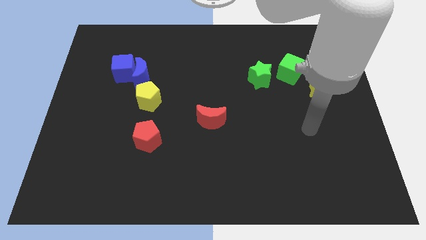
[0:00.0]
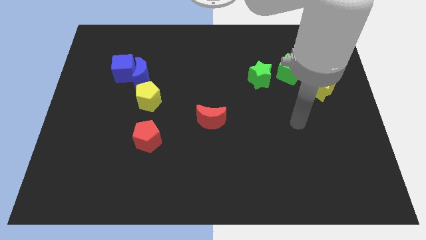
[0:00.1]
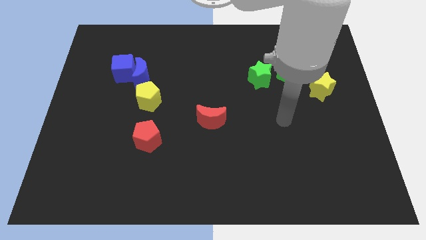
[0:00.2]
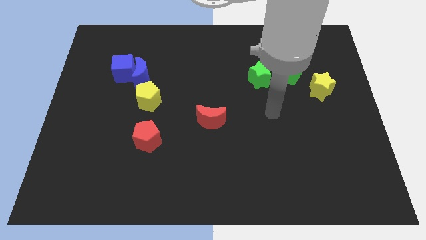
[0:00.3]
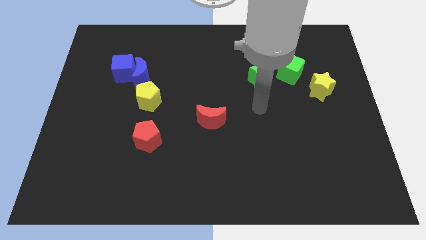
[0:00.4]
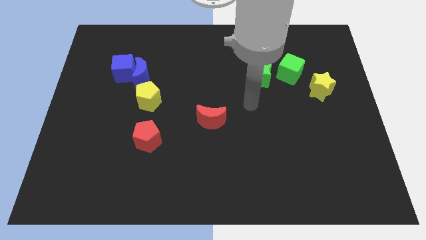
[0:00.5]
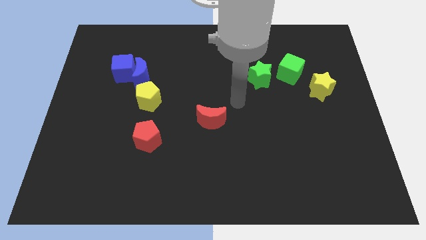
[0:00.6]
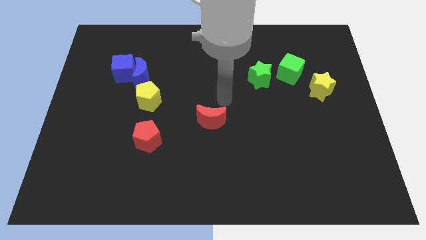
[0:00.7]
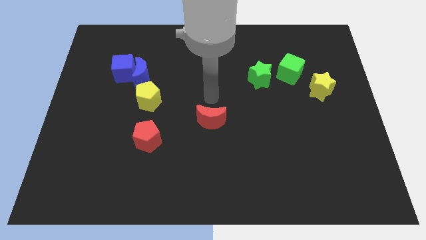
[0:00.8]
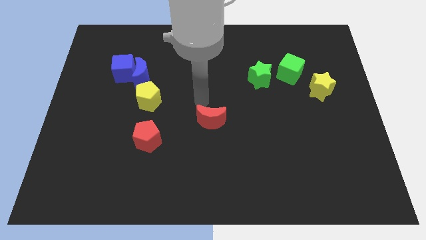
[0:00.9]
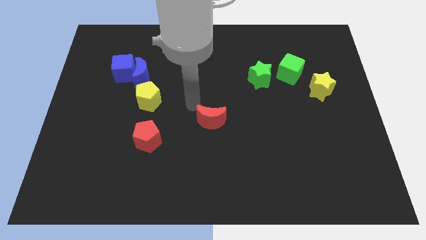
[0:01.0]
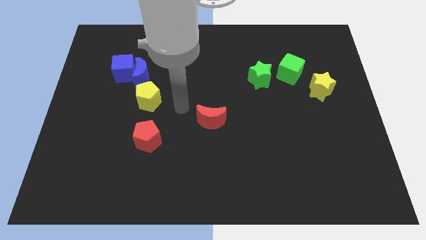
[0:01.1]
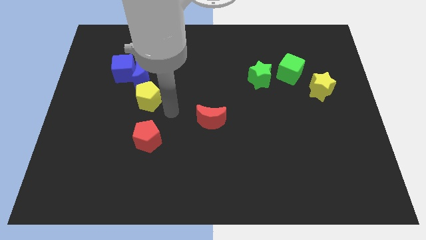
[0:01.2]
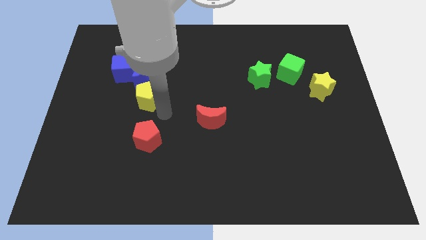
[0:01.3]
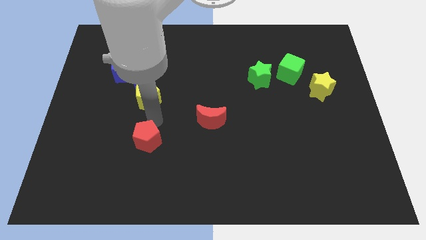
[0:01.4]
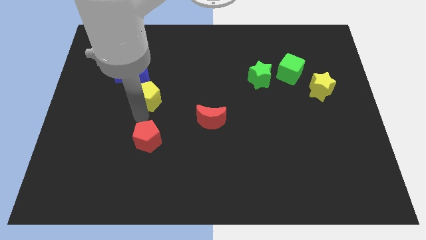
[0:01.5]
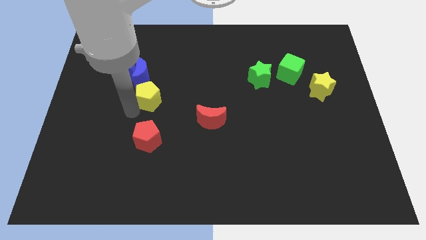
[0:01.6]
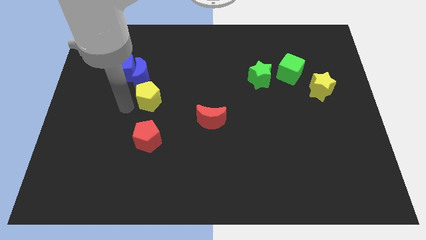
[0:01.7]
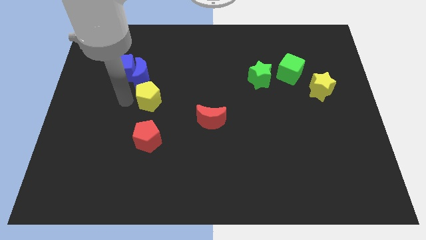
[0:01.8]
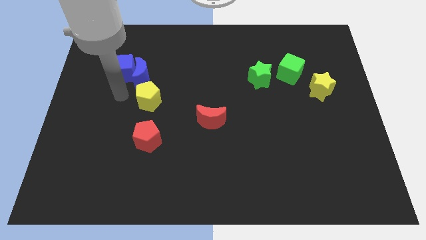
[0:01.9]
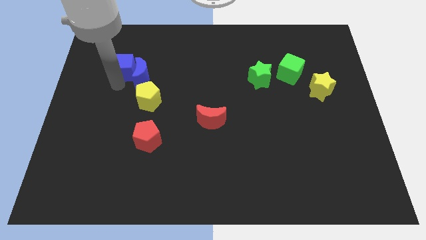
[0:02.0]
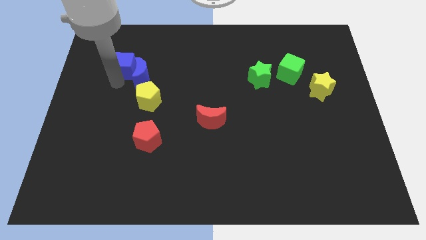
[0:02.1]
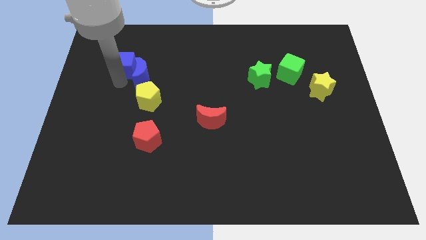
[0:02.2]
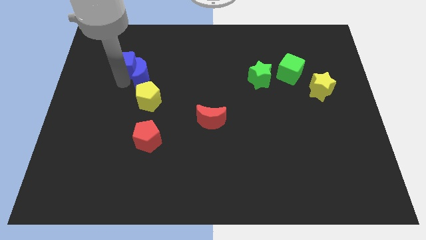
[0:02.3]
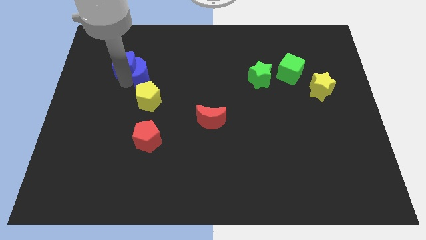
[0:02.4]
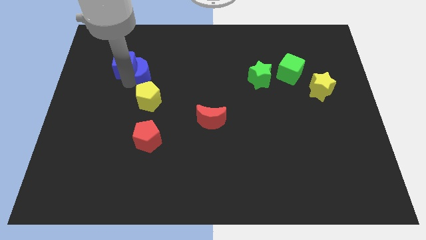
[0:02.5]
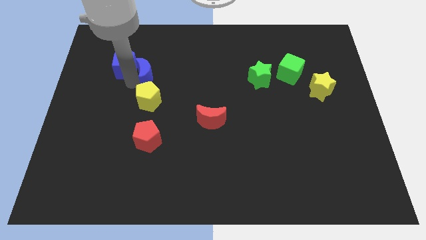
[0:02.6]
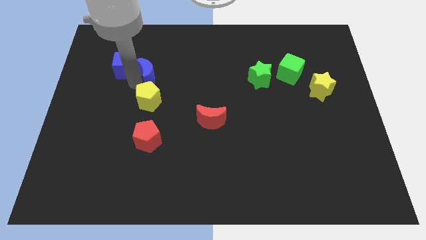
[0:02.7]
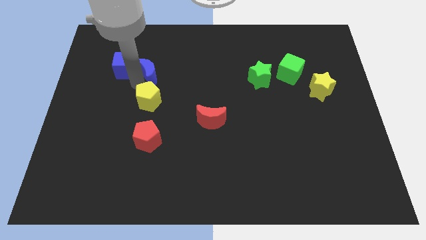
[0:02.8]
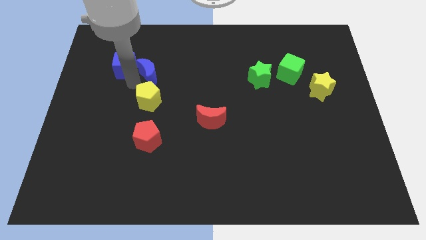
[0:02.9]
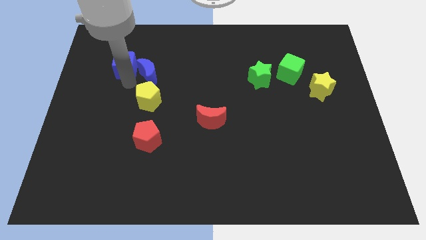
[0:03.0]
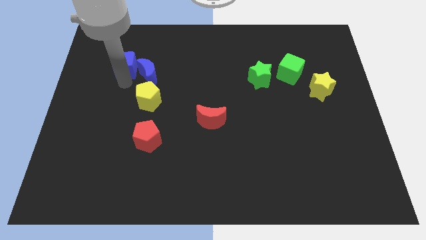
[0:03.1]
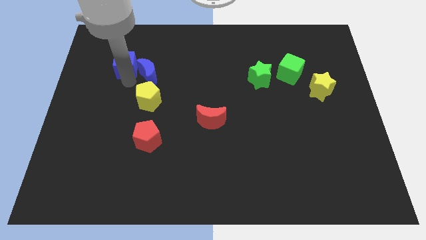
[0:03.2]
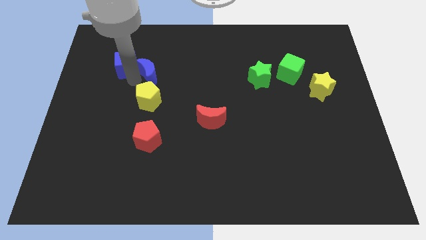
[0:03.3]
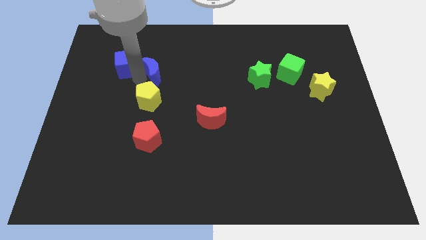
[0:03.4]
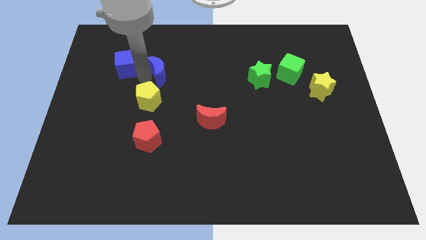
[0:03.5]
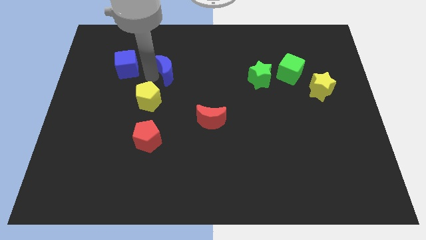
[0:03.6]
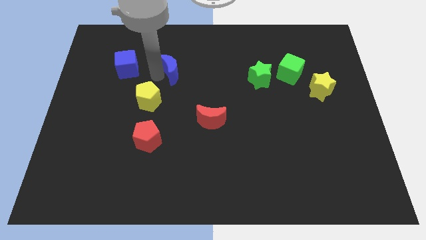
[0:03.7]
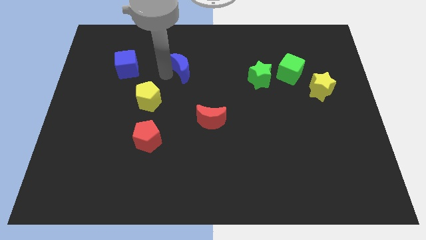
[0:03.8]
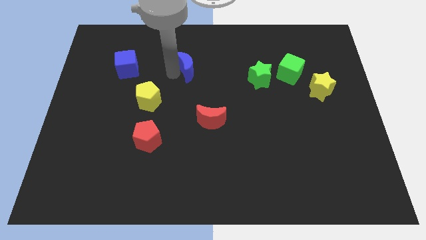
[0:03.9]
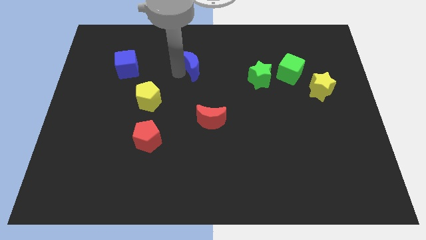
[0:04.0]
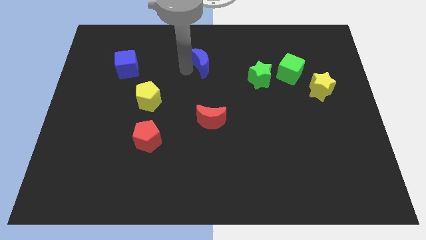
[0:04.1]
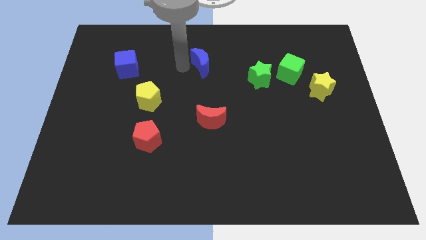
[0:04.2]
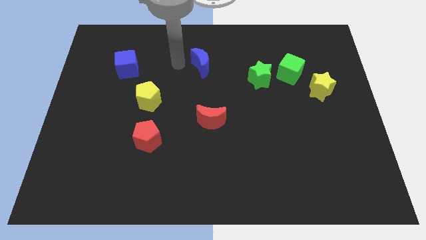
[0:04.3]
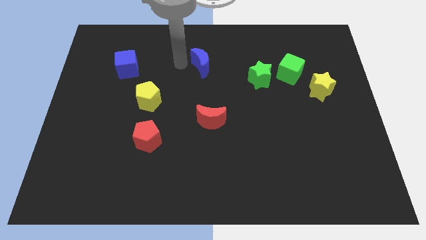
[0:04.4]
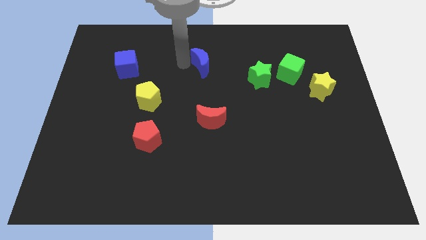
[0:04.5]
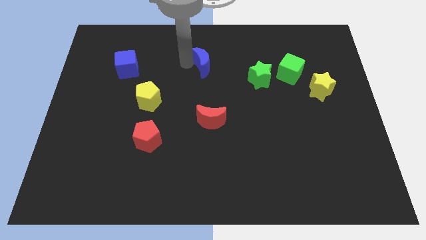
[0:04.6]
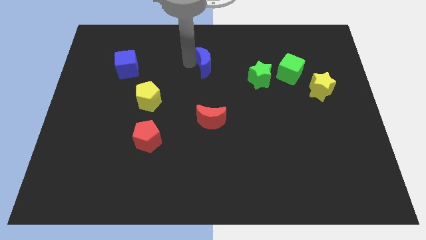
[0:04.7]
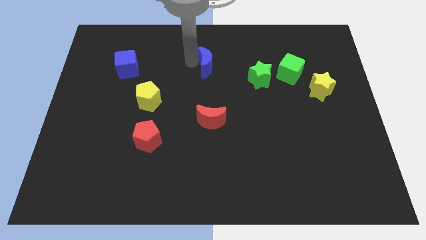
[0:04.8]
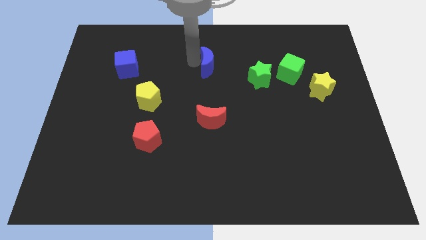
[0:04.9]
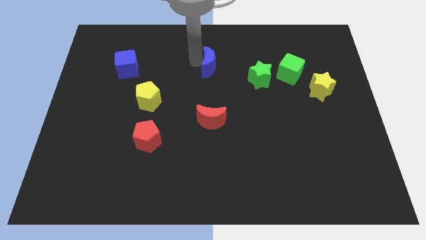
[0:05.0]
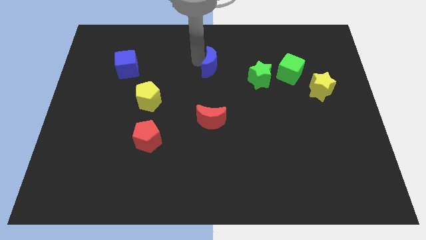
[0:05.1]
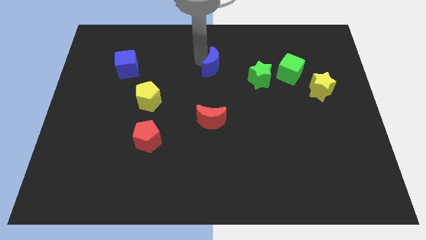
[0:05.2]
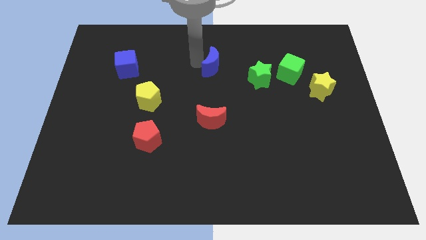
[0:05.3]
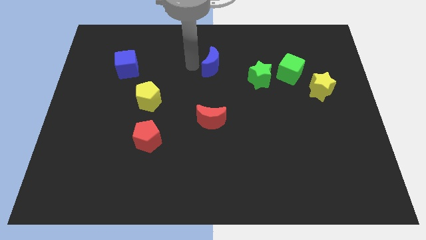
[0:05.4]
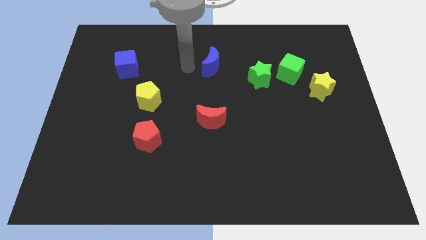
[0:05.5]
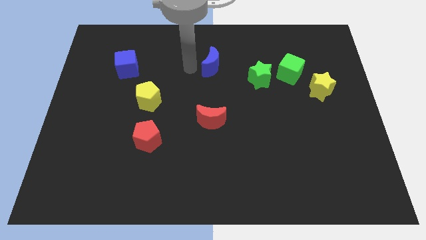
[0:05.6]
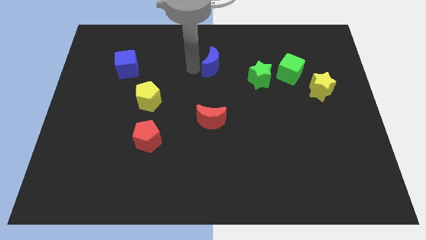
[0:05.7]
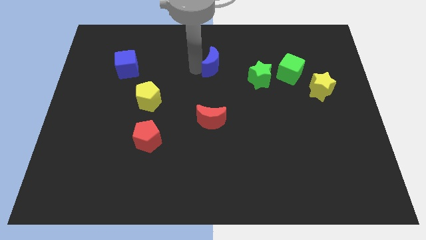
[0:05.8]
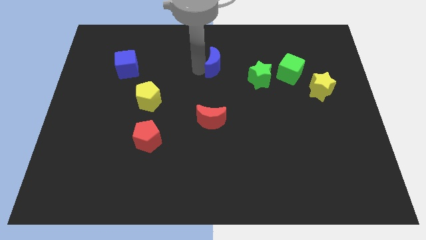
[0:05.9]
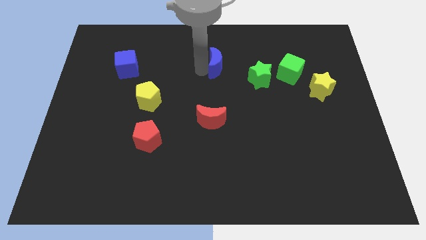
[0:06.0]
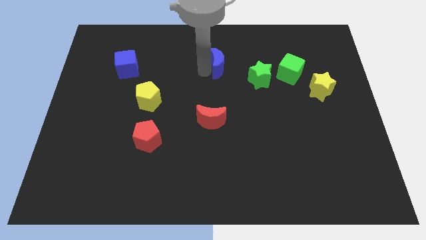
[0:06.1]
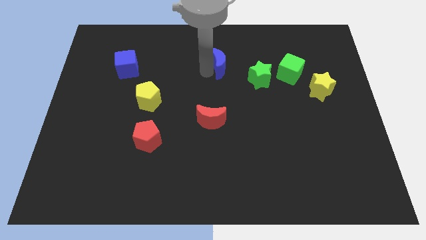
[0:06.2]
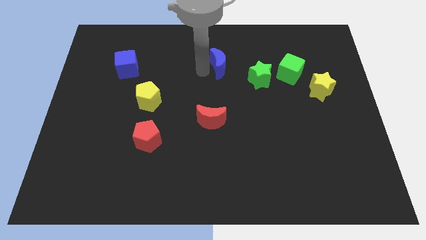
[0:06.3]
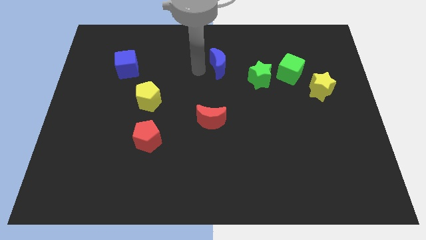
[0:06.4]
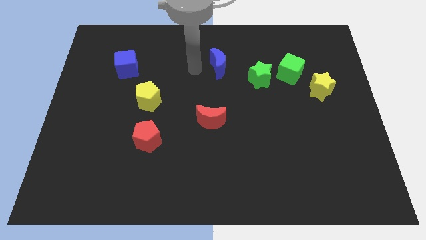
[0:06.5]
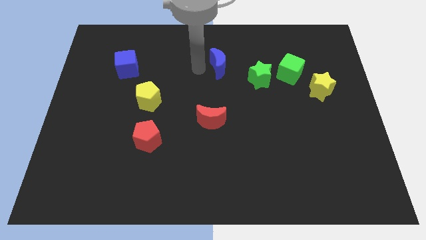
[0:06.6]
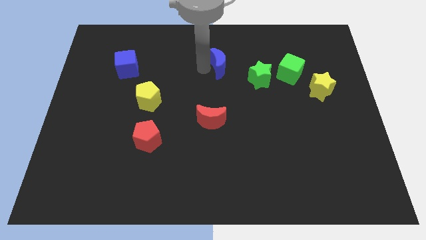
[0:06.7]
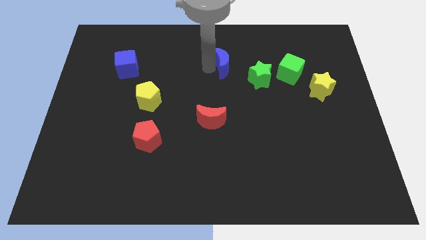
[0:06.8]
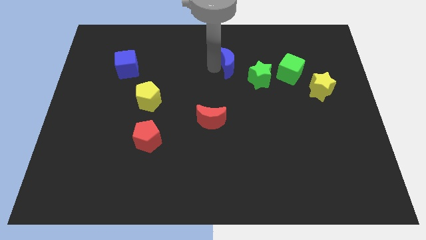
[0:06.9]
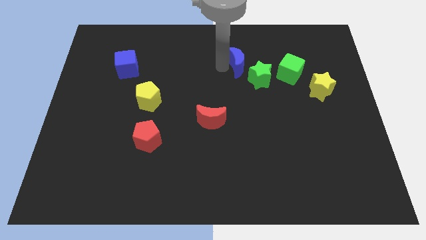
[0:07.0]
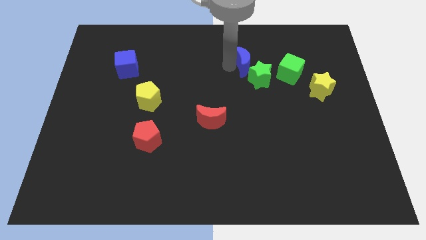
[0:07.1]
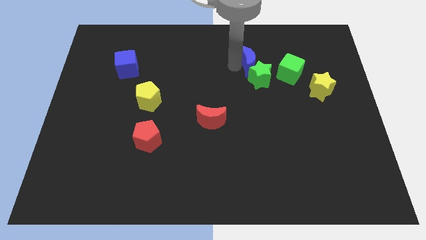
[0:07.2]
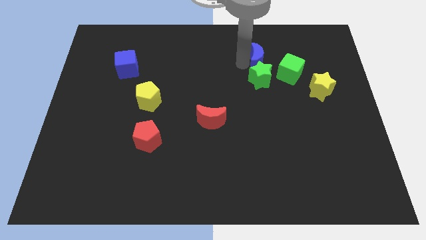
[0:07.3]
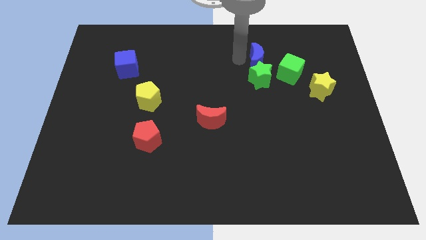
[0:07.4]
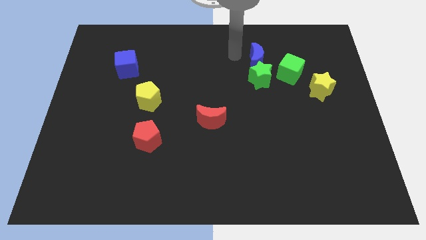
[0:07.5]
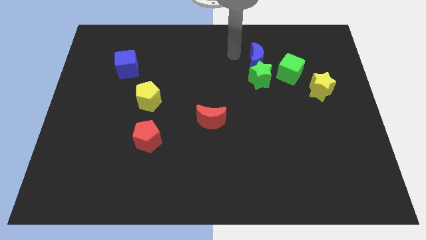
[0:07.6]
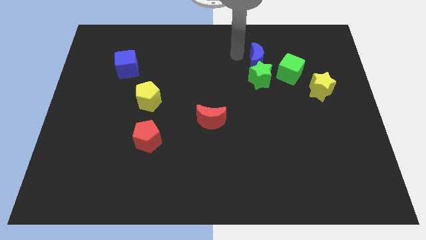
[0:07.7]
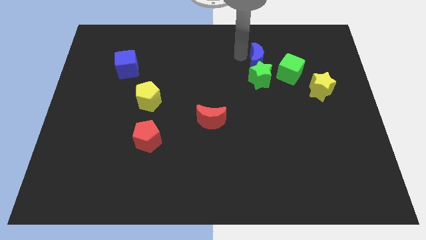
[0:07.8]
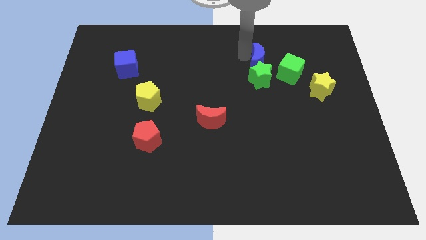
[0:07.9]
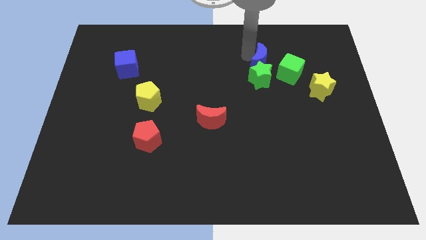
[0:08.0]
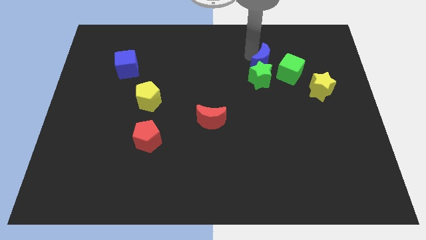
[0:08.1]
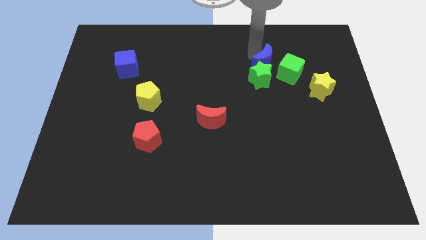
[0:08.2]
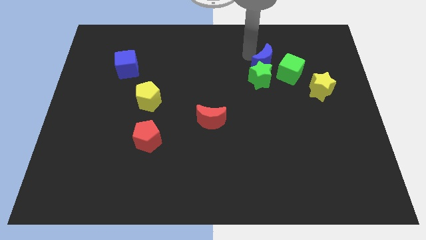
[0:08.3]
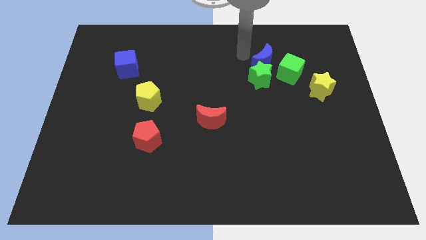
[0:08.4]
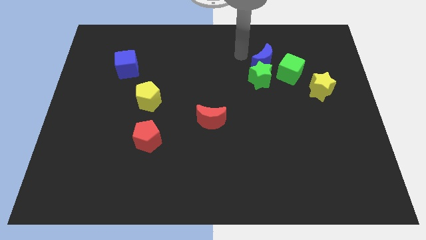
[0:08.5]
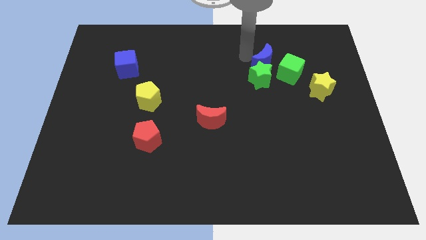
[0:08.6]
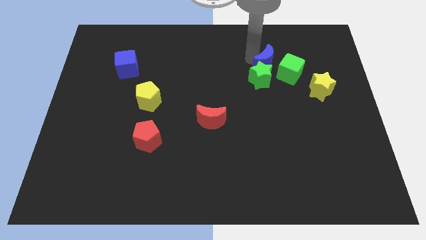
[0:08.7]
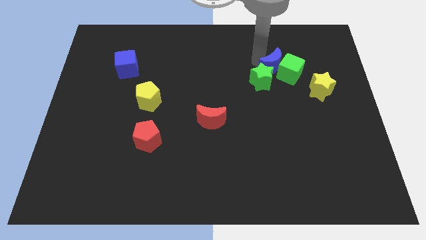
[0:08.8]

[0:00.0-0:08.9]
move the blue moon close to the green cube
